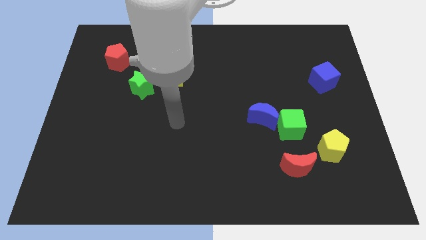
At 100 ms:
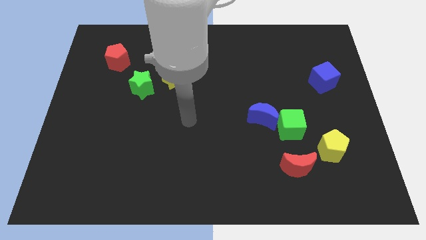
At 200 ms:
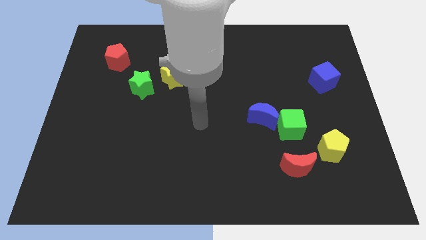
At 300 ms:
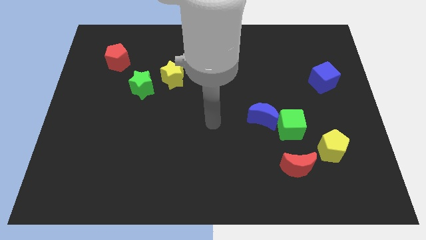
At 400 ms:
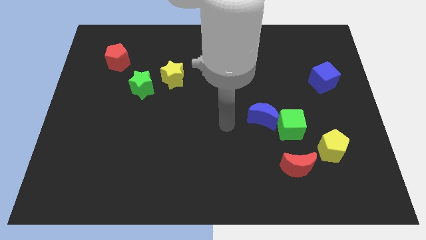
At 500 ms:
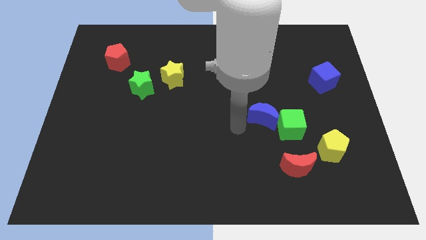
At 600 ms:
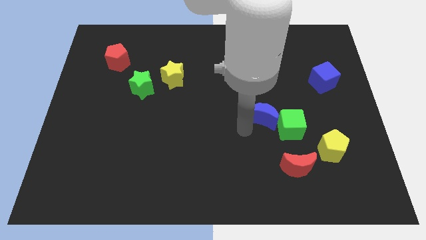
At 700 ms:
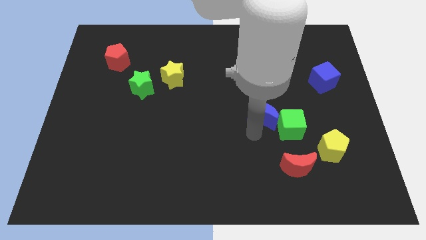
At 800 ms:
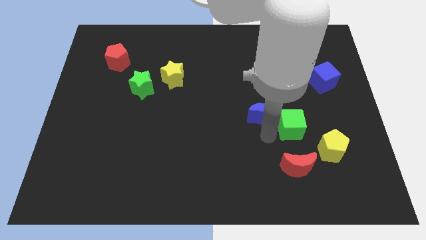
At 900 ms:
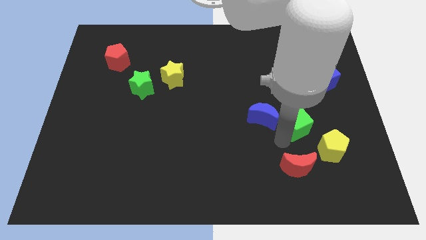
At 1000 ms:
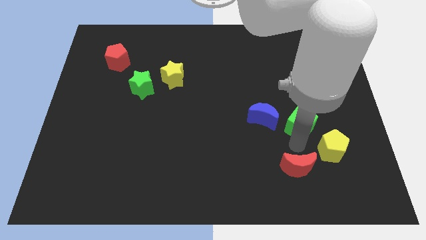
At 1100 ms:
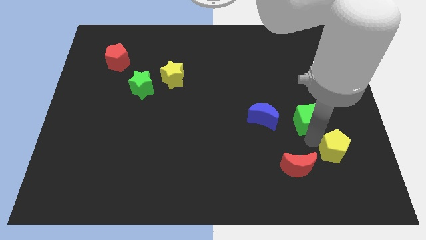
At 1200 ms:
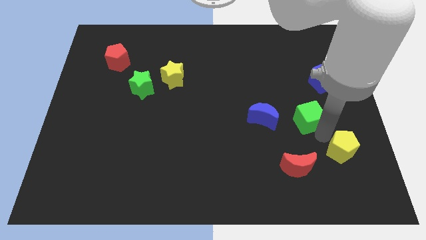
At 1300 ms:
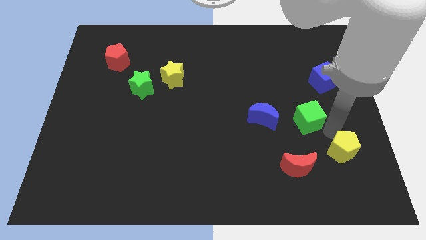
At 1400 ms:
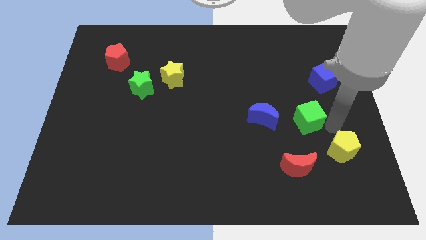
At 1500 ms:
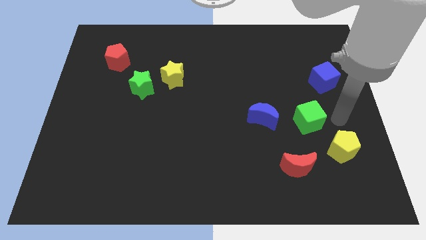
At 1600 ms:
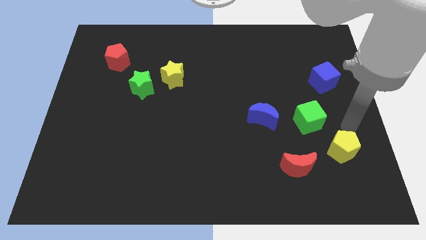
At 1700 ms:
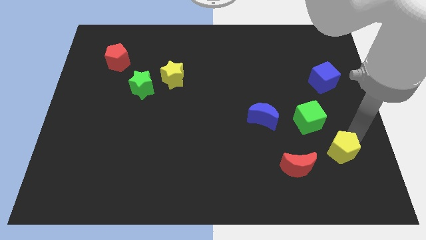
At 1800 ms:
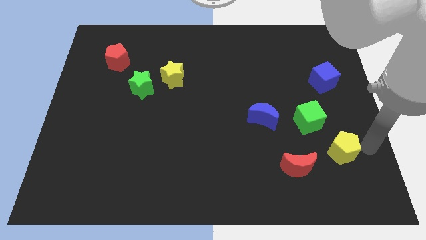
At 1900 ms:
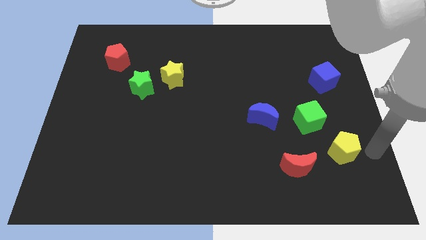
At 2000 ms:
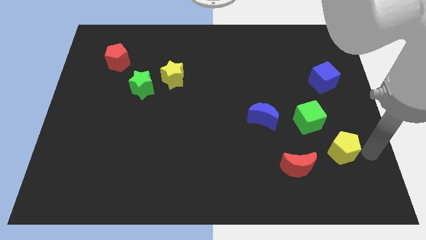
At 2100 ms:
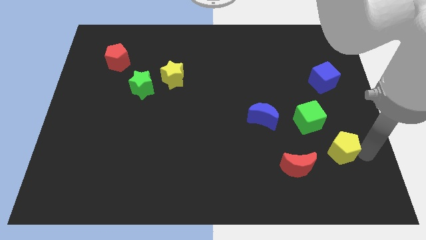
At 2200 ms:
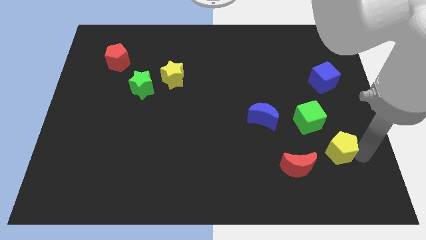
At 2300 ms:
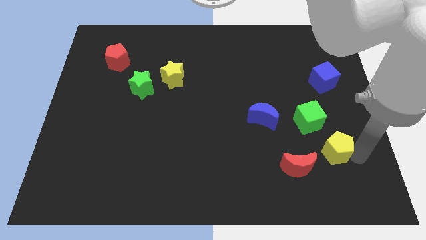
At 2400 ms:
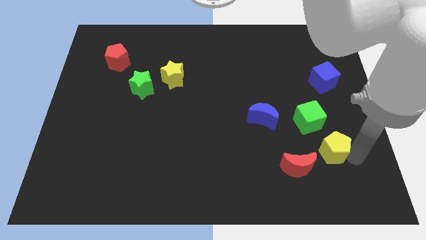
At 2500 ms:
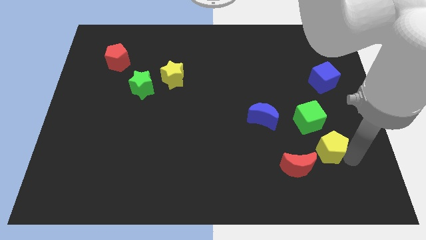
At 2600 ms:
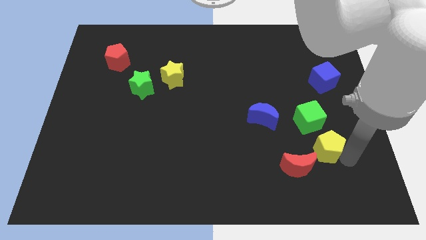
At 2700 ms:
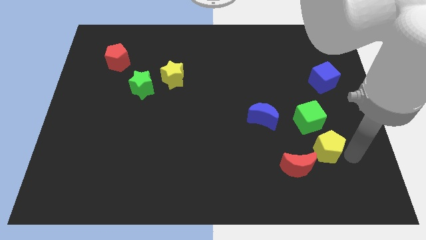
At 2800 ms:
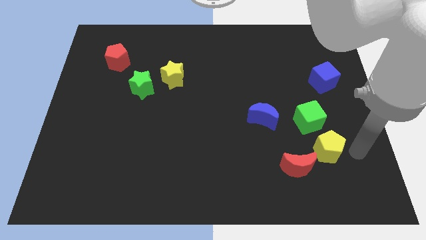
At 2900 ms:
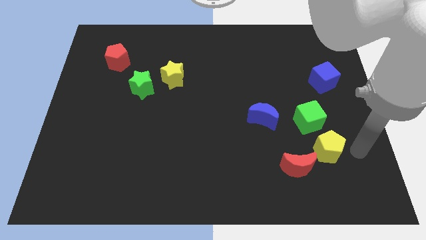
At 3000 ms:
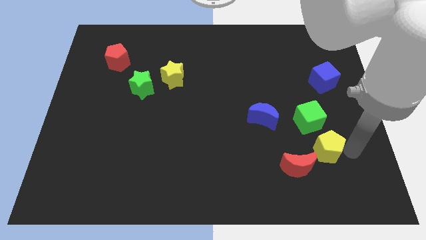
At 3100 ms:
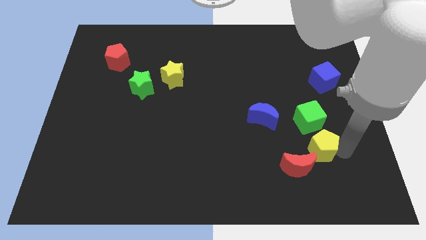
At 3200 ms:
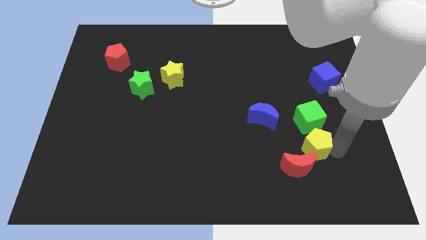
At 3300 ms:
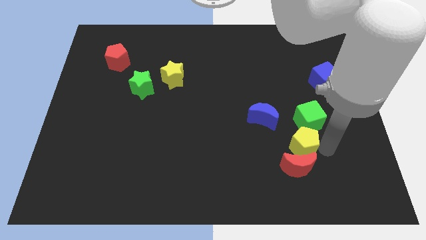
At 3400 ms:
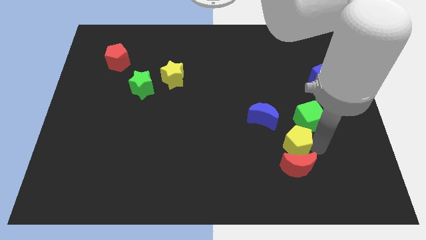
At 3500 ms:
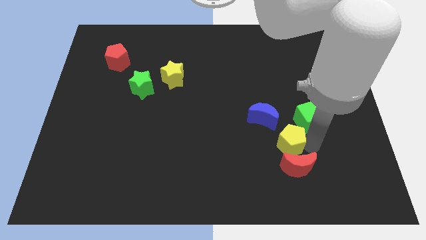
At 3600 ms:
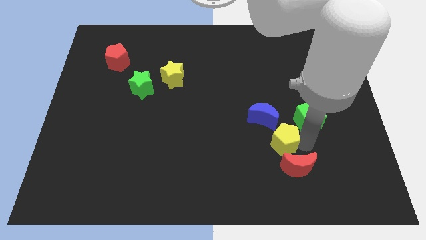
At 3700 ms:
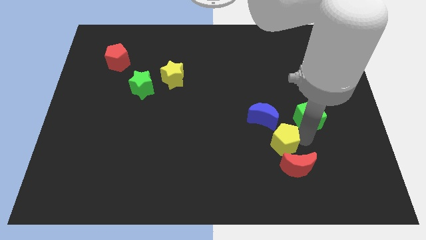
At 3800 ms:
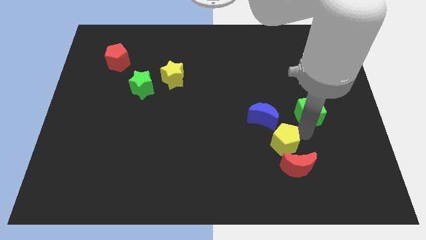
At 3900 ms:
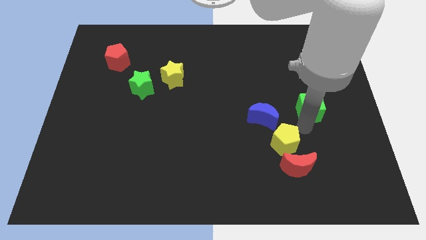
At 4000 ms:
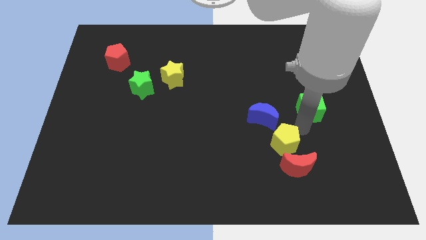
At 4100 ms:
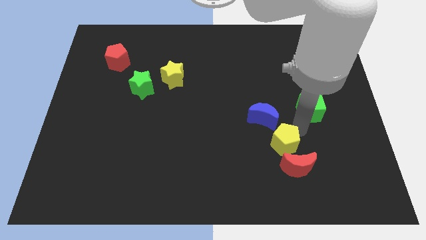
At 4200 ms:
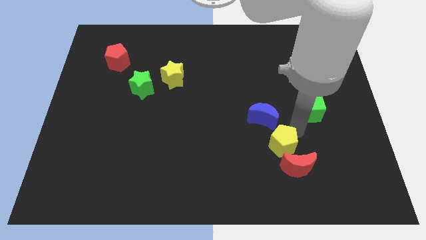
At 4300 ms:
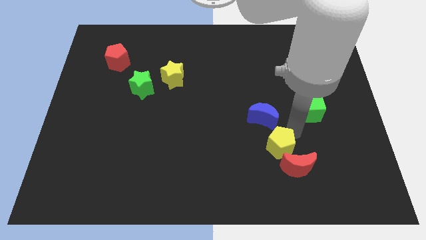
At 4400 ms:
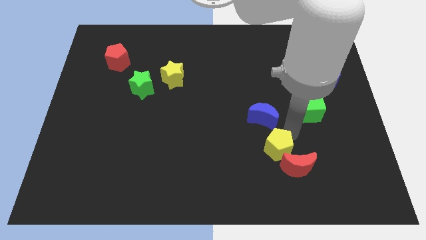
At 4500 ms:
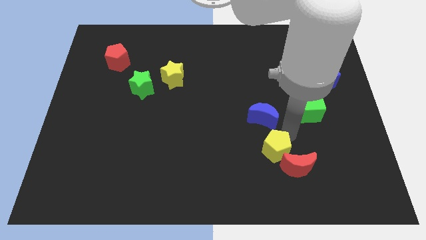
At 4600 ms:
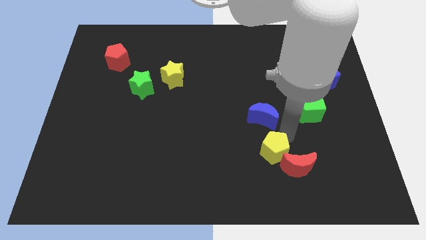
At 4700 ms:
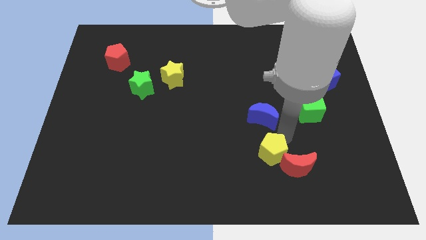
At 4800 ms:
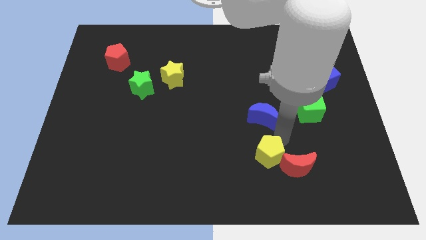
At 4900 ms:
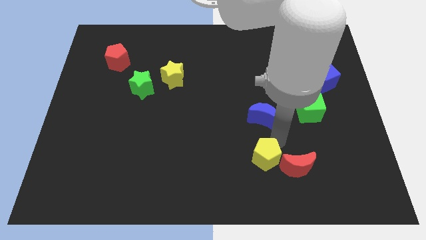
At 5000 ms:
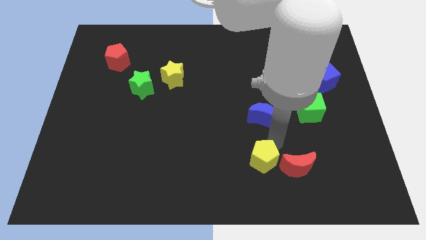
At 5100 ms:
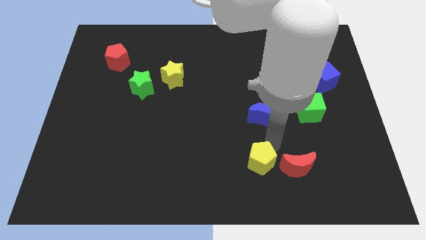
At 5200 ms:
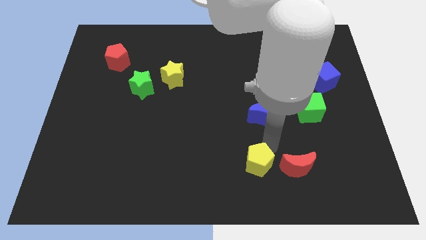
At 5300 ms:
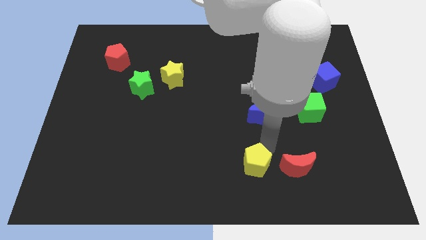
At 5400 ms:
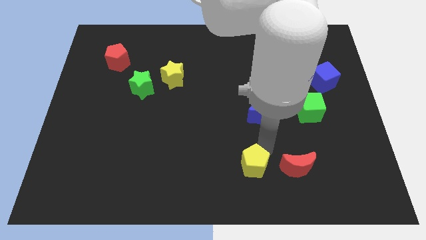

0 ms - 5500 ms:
put the yellow pentagon to the bottom

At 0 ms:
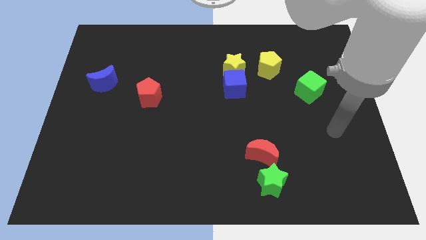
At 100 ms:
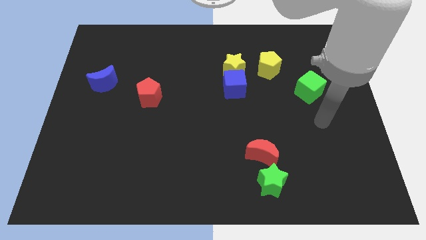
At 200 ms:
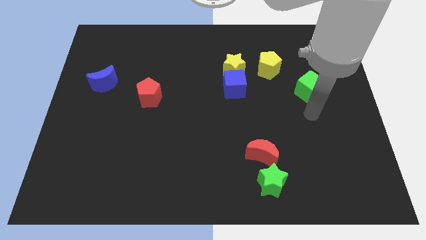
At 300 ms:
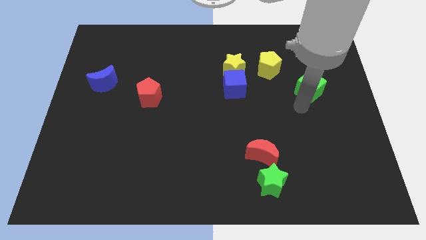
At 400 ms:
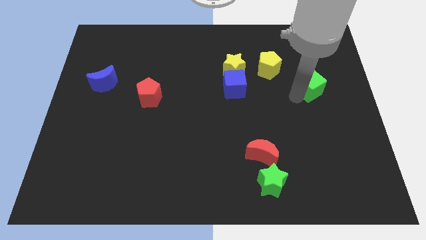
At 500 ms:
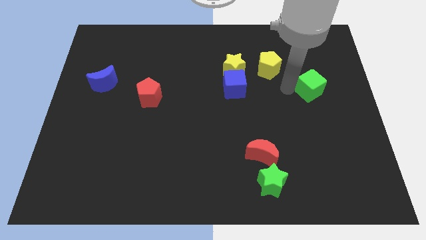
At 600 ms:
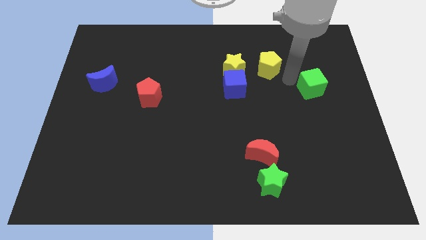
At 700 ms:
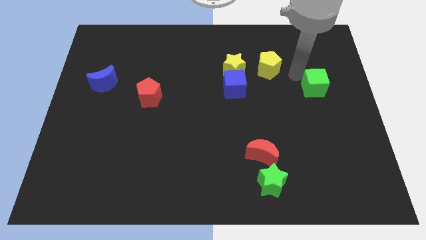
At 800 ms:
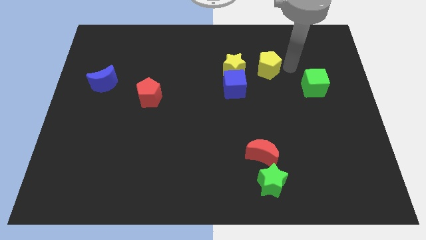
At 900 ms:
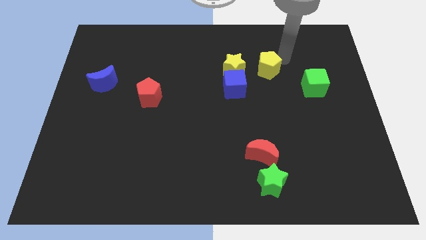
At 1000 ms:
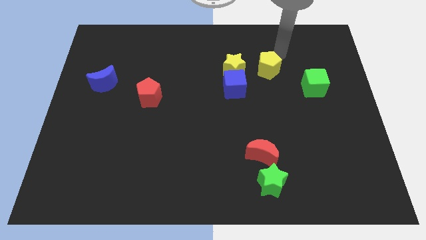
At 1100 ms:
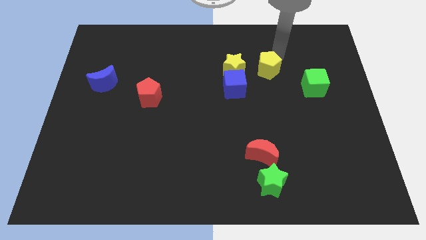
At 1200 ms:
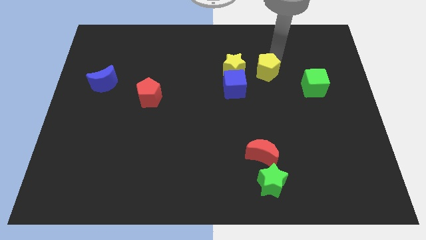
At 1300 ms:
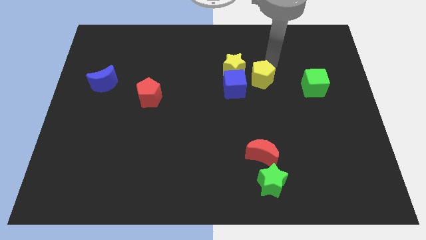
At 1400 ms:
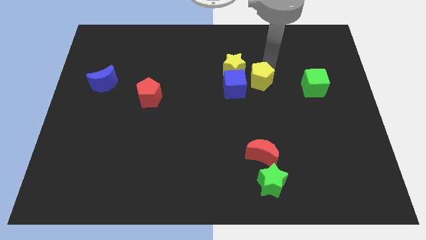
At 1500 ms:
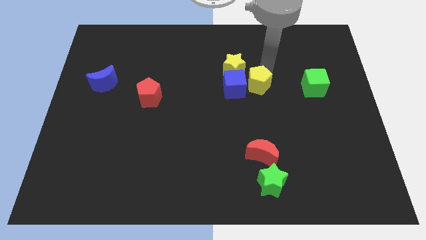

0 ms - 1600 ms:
put the yellow pentagon to the middle of the board
